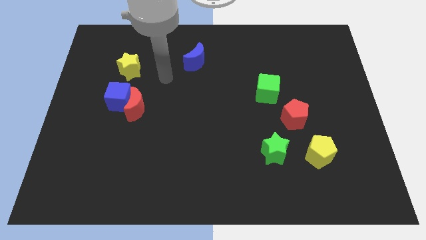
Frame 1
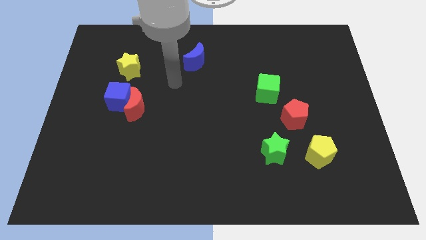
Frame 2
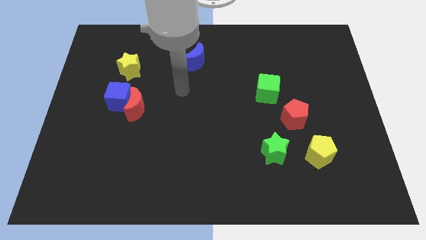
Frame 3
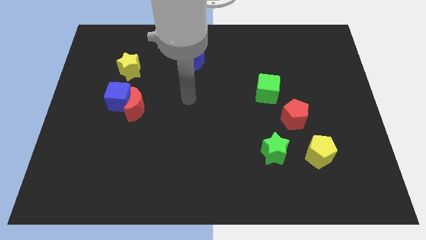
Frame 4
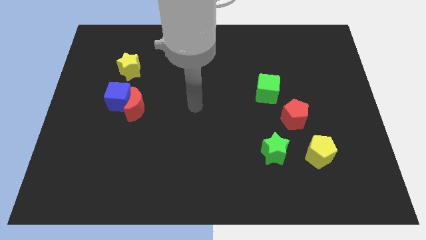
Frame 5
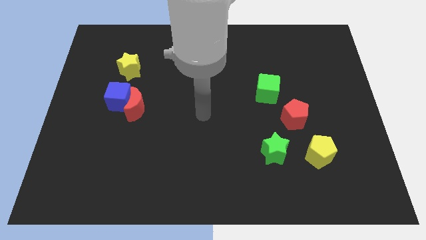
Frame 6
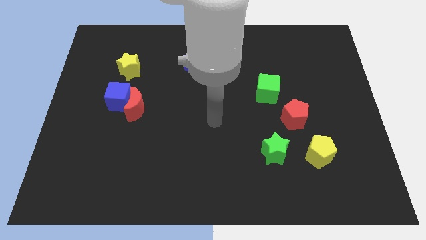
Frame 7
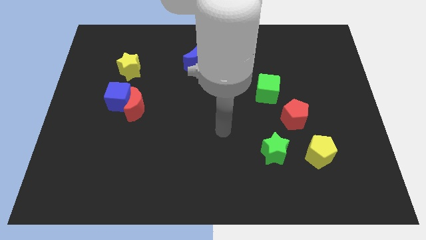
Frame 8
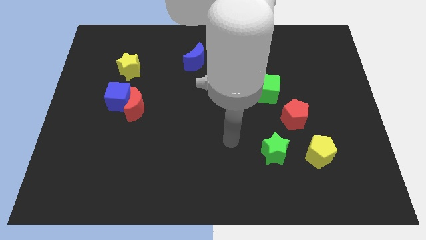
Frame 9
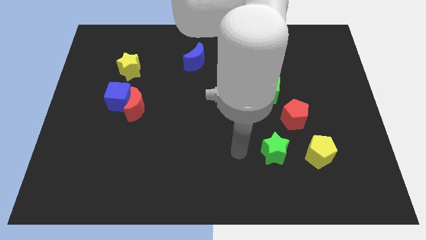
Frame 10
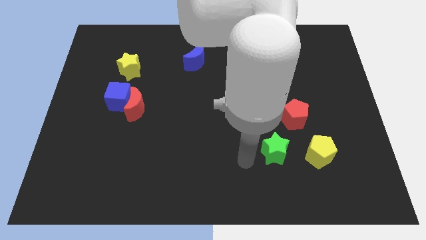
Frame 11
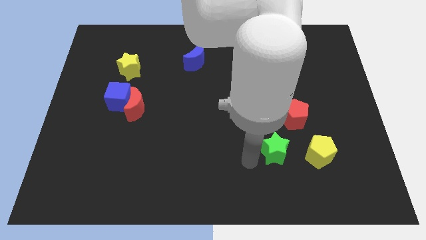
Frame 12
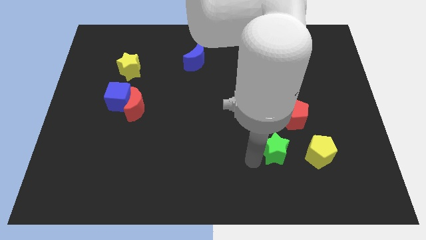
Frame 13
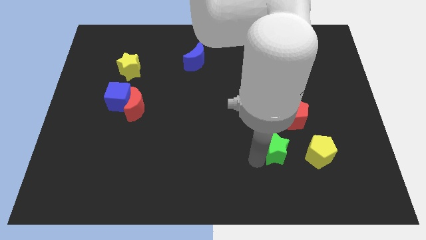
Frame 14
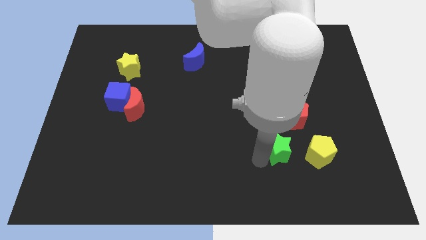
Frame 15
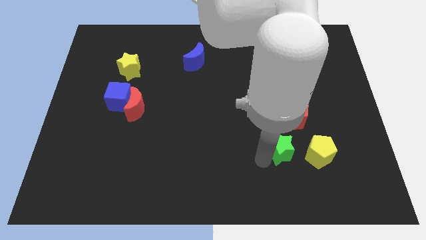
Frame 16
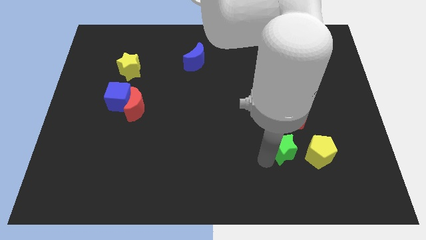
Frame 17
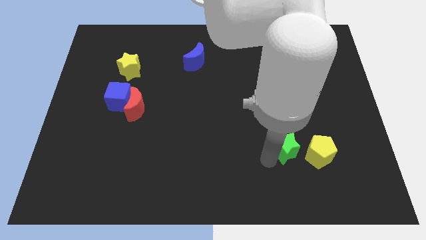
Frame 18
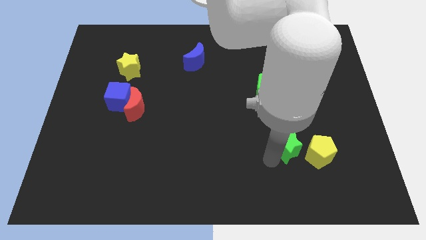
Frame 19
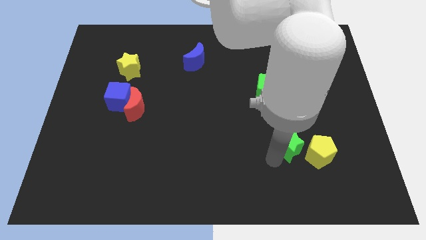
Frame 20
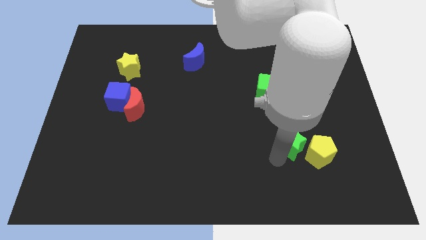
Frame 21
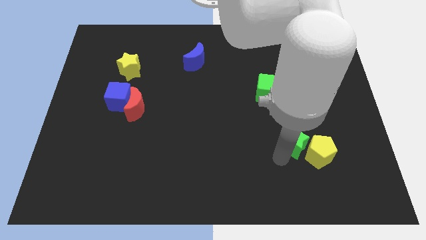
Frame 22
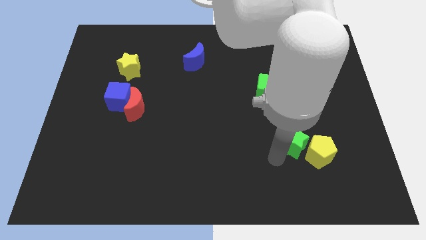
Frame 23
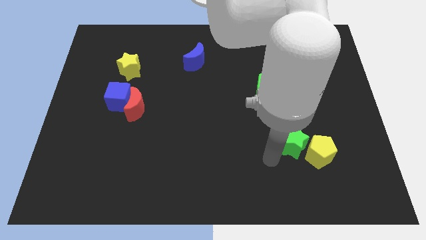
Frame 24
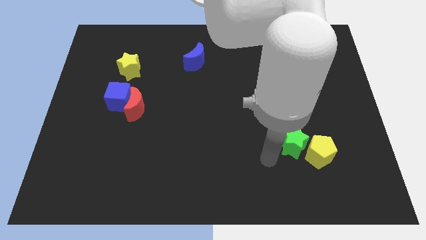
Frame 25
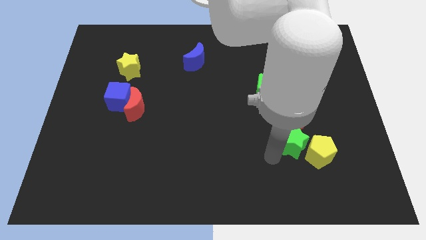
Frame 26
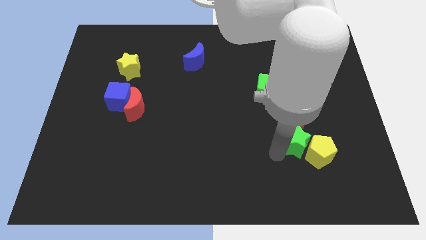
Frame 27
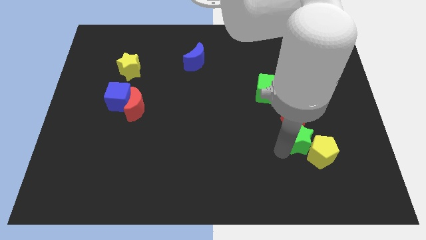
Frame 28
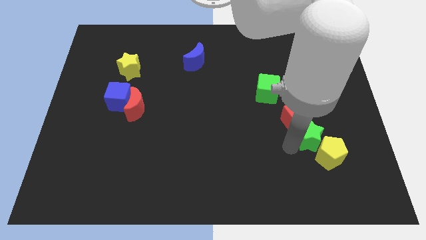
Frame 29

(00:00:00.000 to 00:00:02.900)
push the green star a little bit diagonally upwards and right

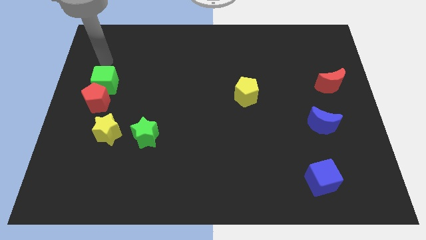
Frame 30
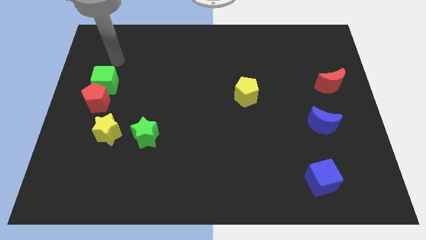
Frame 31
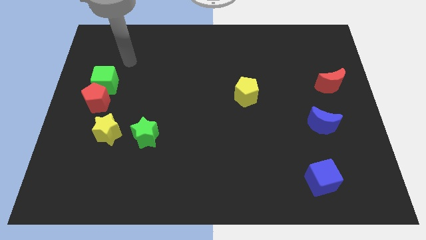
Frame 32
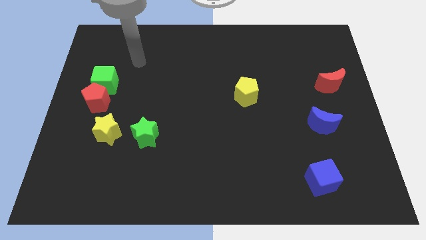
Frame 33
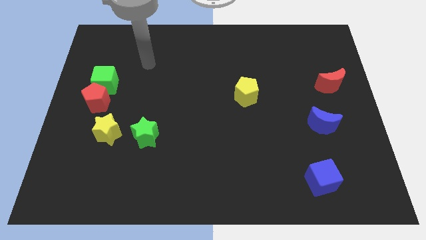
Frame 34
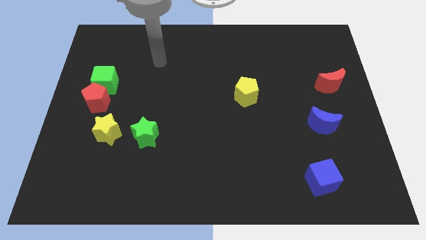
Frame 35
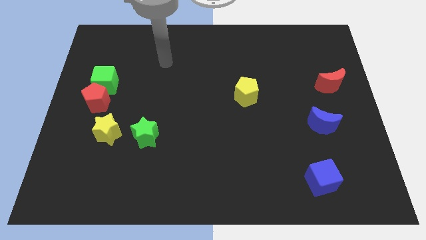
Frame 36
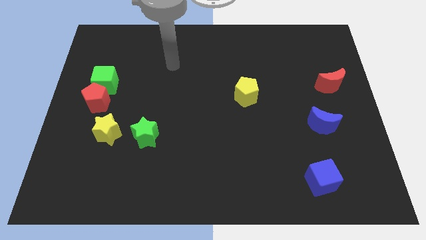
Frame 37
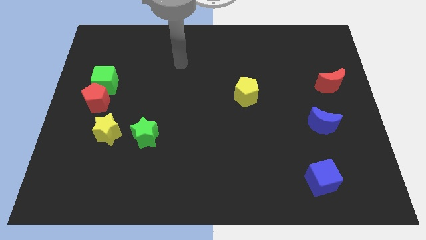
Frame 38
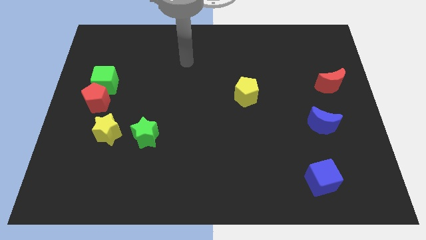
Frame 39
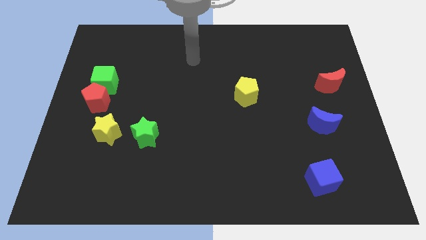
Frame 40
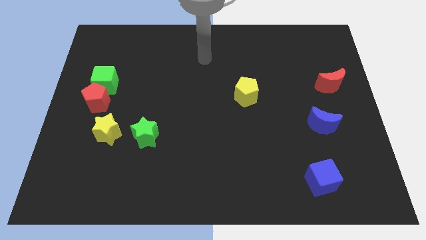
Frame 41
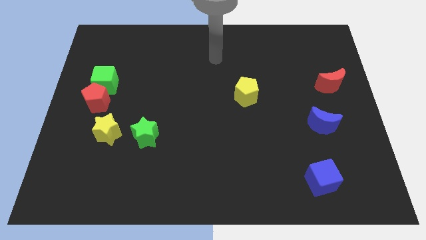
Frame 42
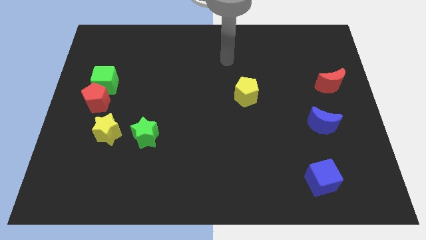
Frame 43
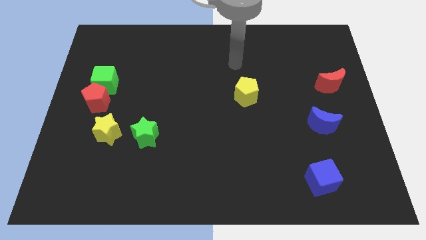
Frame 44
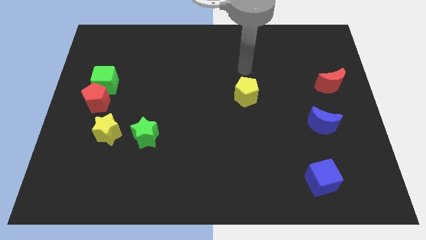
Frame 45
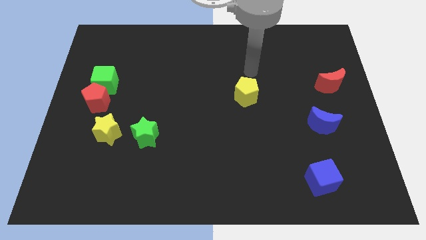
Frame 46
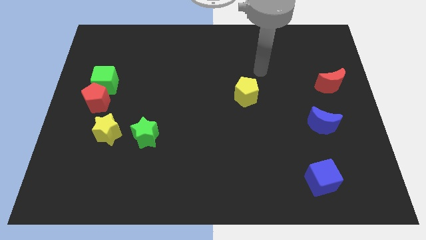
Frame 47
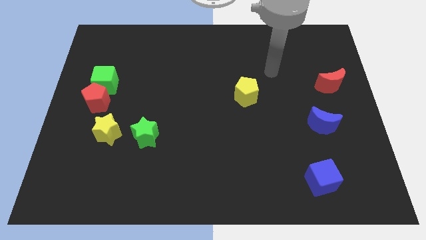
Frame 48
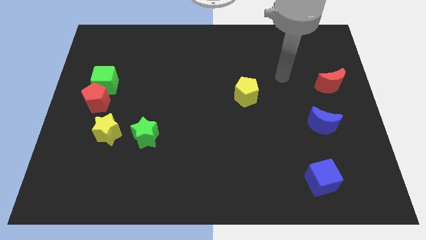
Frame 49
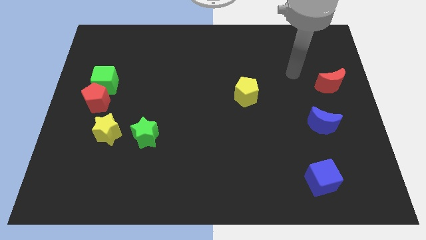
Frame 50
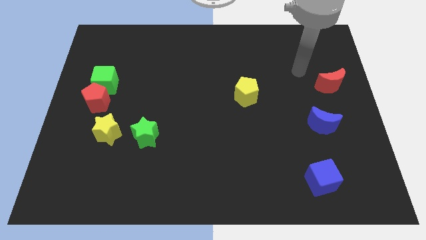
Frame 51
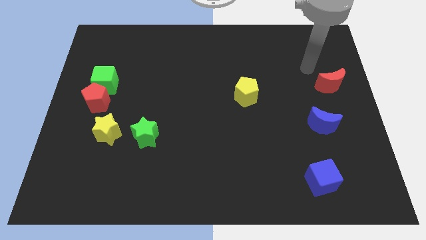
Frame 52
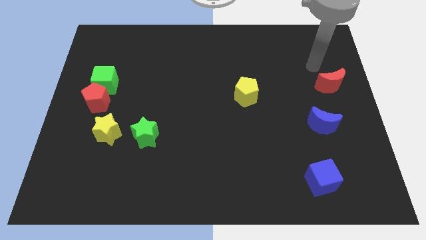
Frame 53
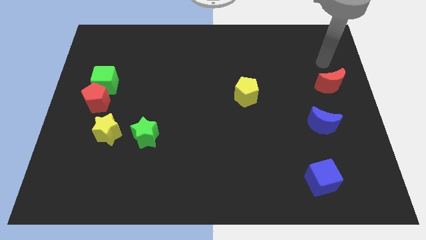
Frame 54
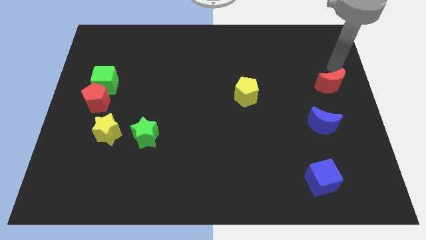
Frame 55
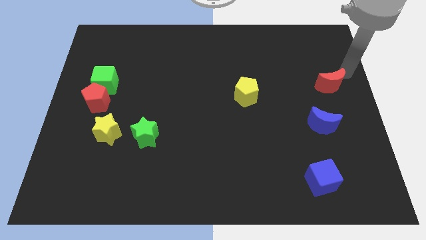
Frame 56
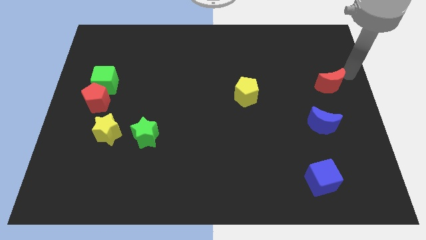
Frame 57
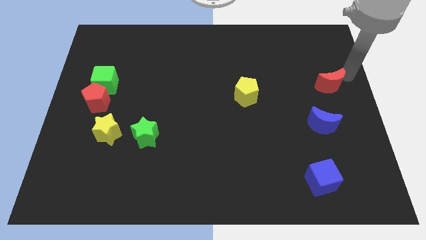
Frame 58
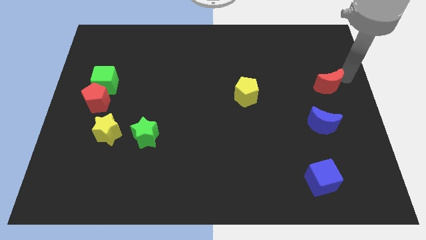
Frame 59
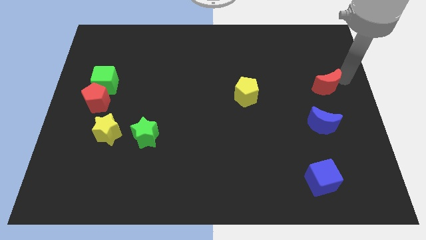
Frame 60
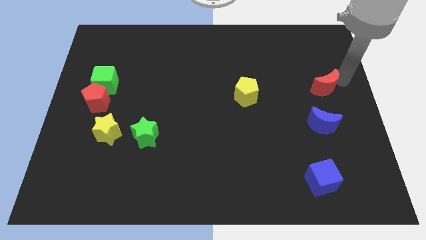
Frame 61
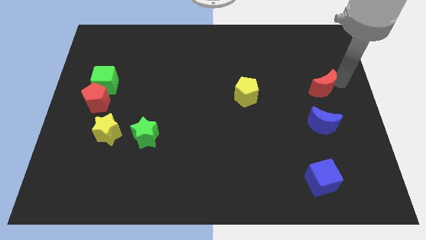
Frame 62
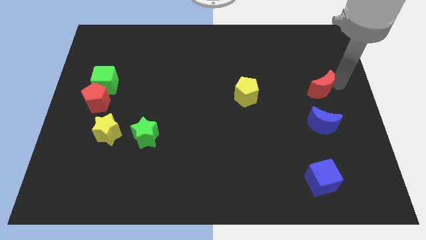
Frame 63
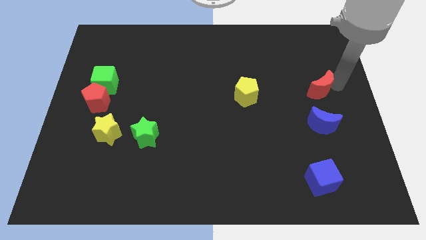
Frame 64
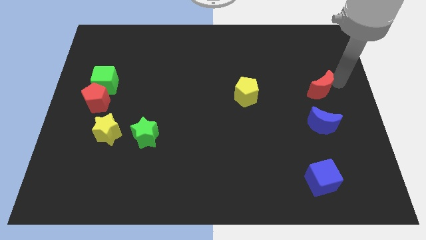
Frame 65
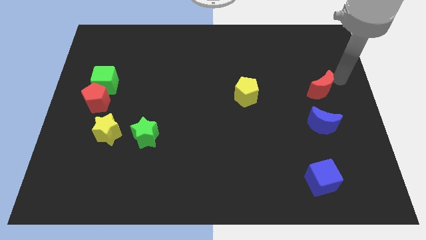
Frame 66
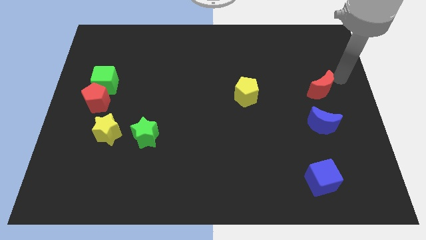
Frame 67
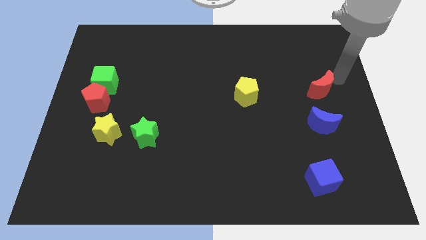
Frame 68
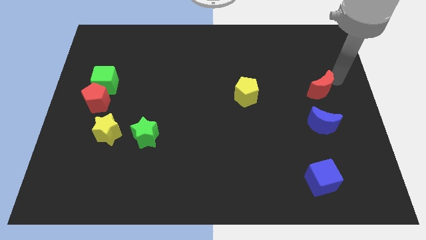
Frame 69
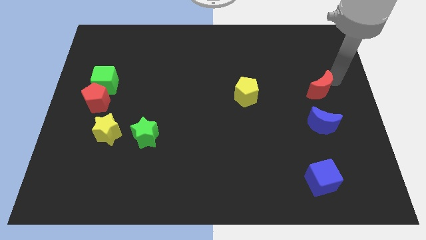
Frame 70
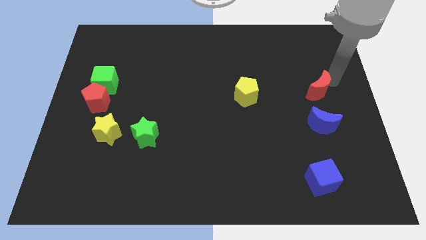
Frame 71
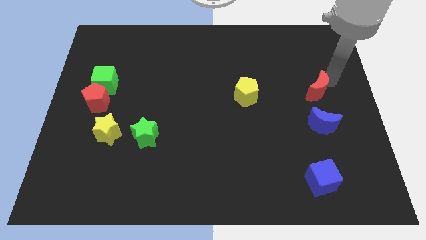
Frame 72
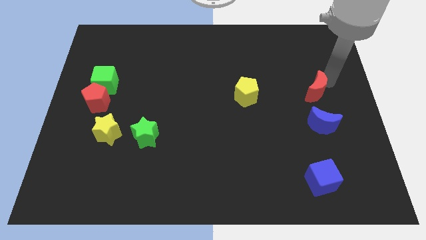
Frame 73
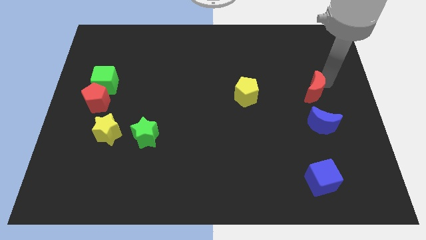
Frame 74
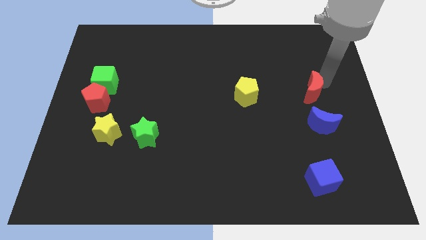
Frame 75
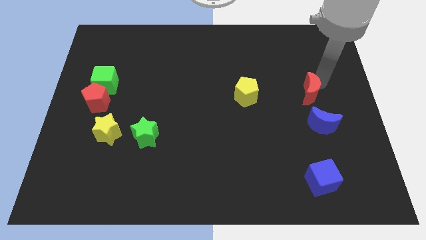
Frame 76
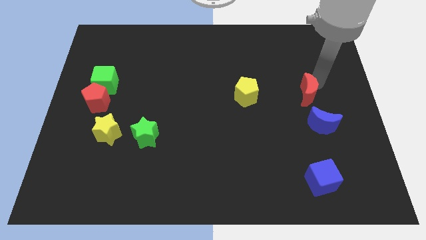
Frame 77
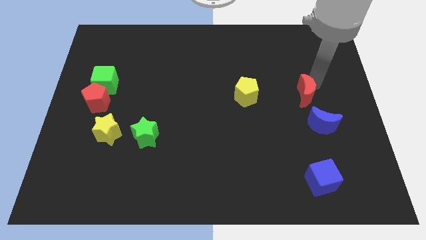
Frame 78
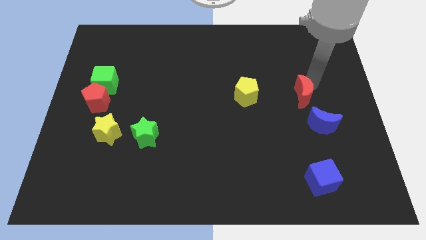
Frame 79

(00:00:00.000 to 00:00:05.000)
push the red moon diagonally down and left slightly
